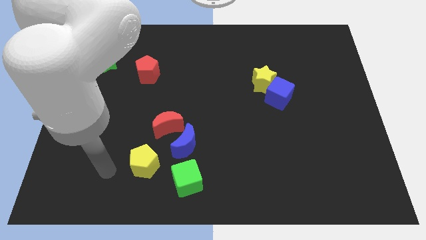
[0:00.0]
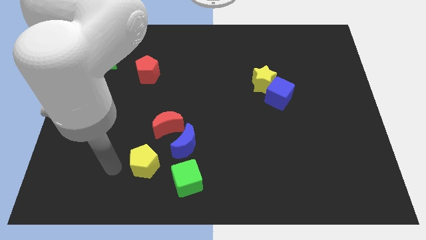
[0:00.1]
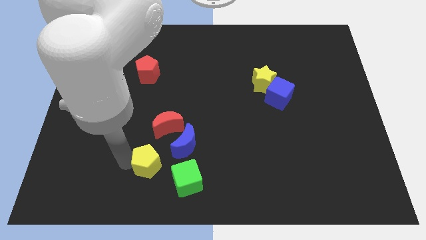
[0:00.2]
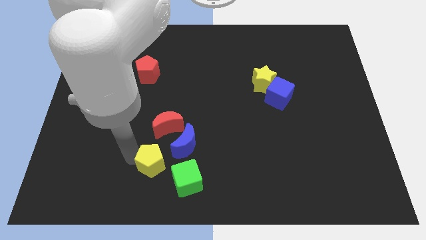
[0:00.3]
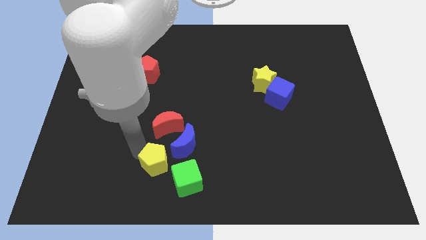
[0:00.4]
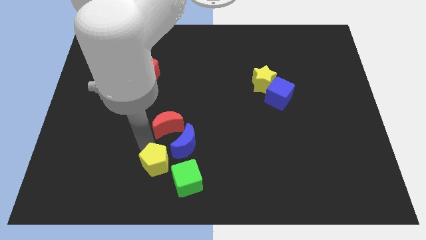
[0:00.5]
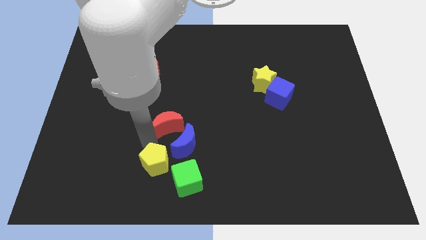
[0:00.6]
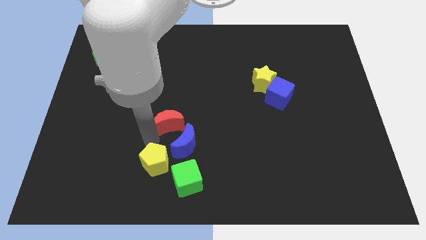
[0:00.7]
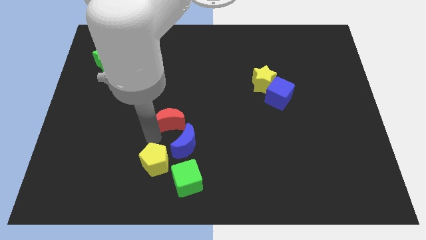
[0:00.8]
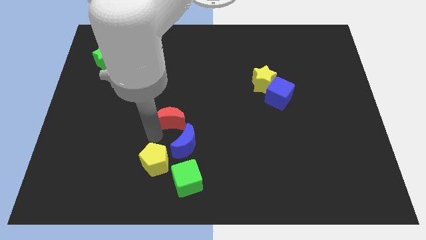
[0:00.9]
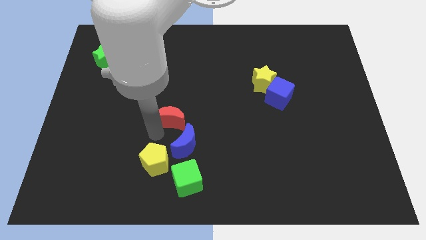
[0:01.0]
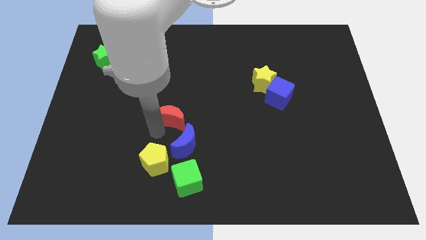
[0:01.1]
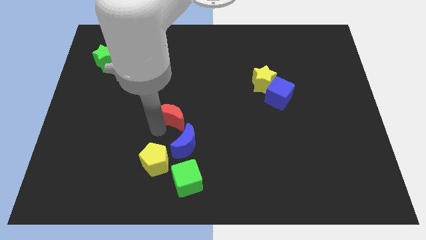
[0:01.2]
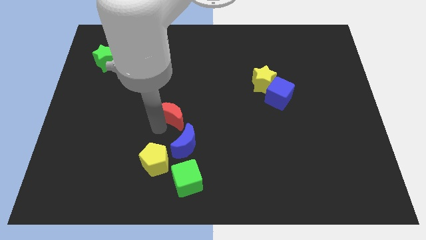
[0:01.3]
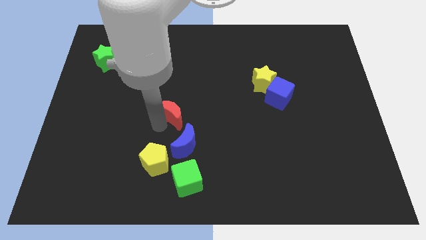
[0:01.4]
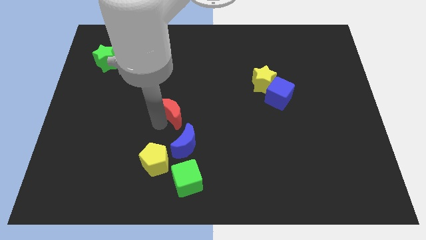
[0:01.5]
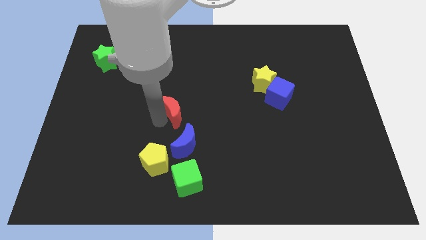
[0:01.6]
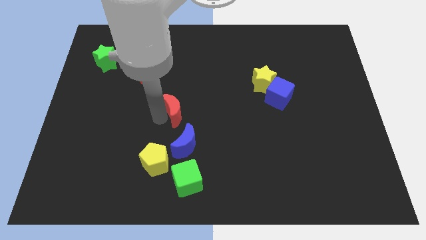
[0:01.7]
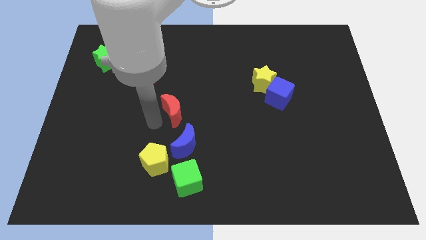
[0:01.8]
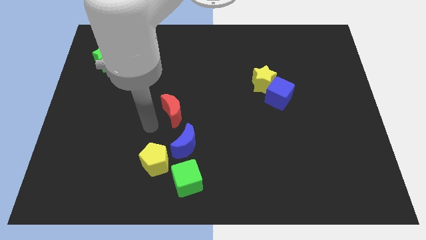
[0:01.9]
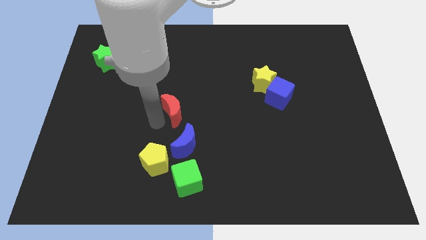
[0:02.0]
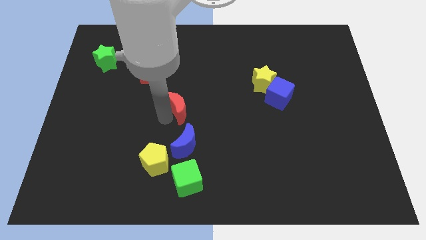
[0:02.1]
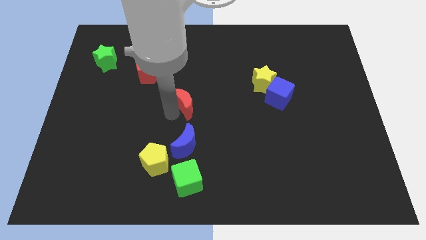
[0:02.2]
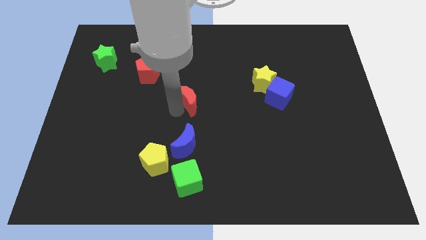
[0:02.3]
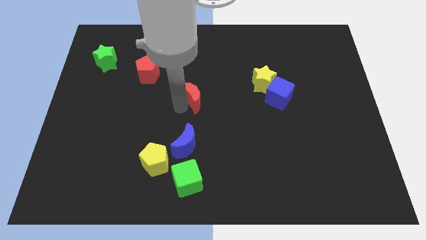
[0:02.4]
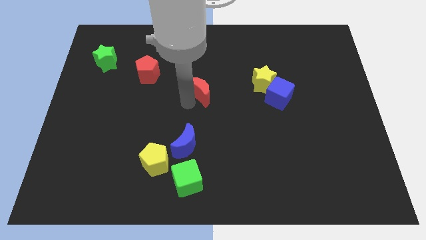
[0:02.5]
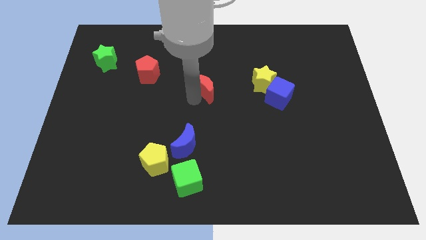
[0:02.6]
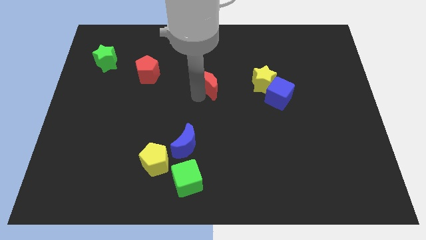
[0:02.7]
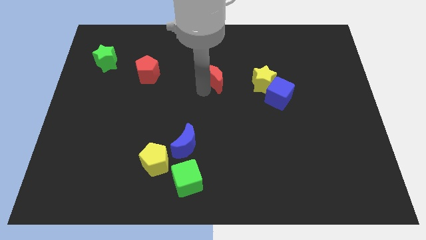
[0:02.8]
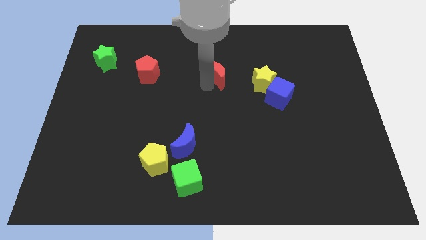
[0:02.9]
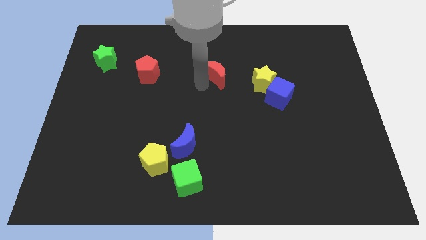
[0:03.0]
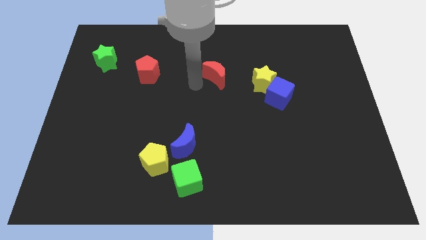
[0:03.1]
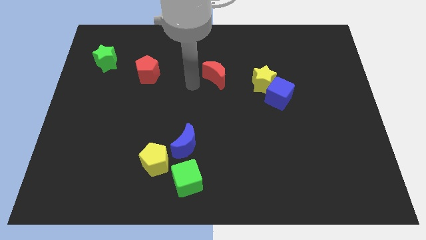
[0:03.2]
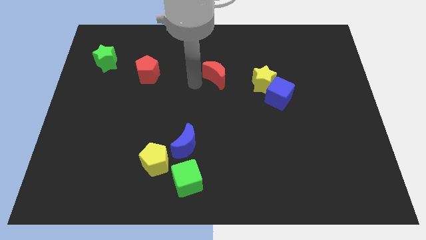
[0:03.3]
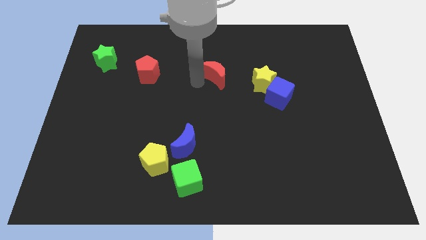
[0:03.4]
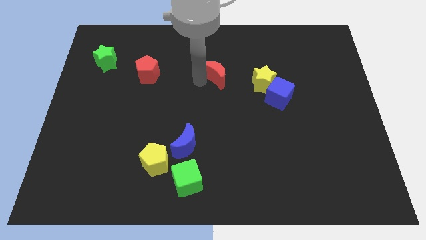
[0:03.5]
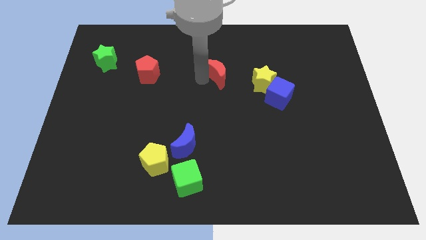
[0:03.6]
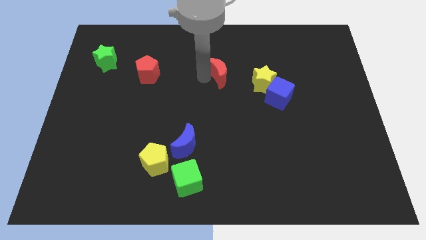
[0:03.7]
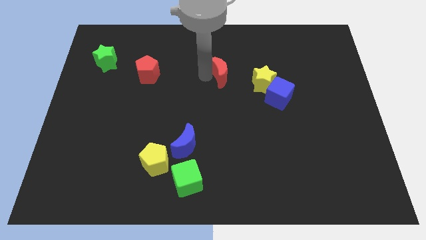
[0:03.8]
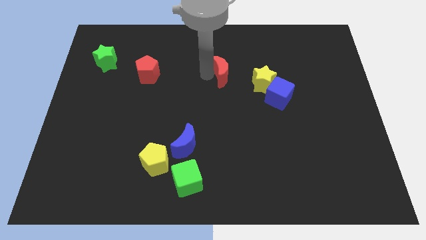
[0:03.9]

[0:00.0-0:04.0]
push the red moon up and then right

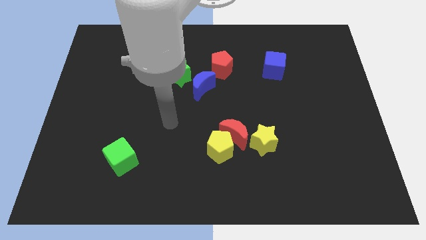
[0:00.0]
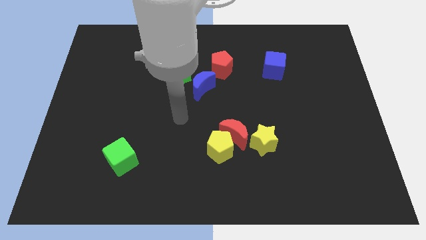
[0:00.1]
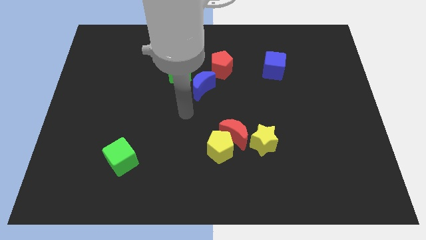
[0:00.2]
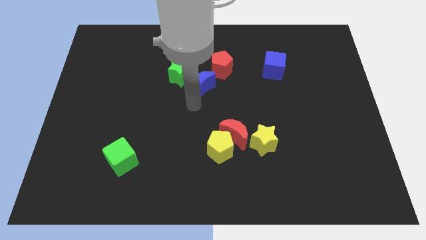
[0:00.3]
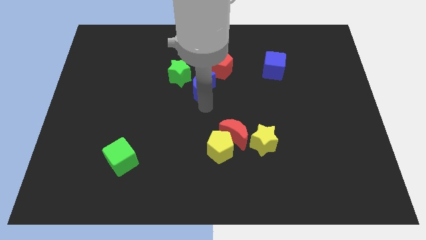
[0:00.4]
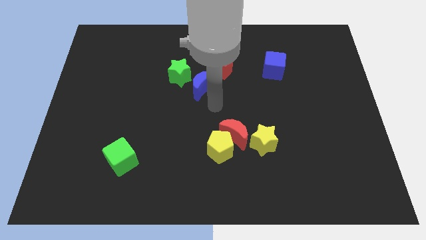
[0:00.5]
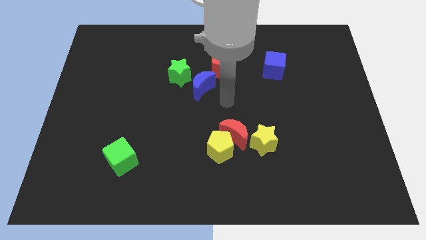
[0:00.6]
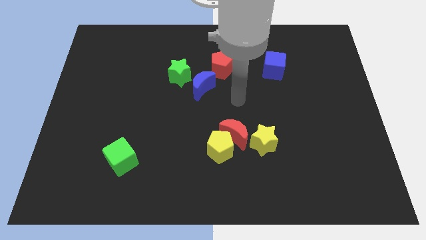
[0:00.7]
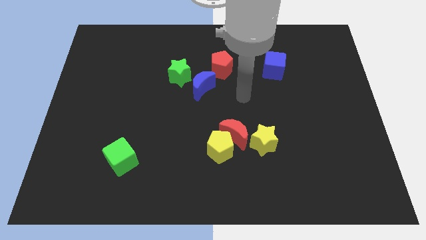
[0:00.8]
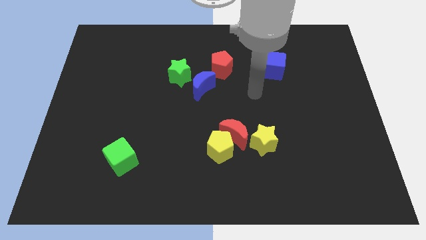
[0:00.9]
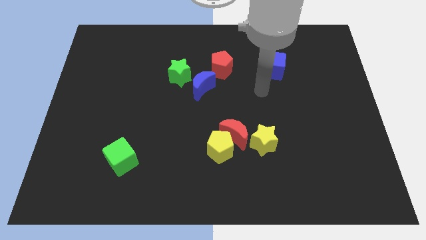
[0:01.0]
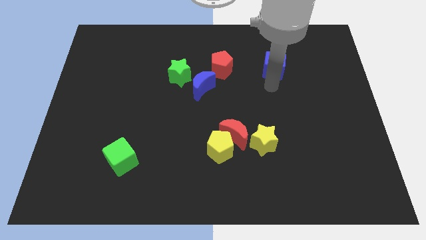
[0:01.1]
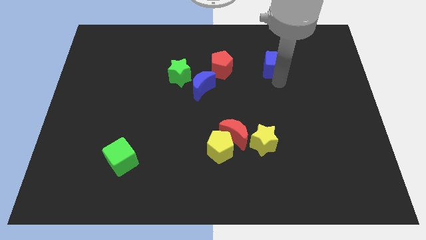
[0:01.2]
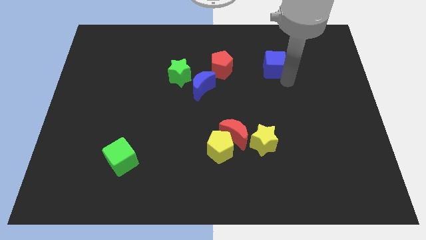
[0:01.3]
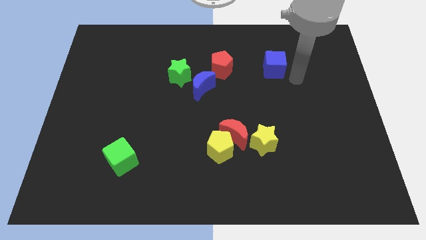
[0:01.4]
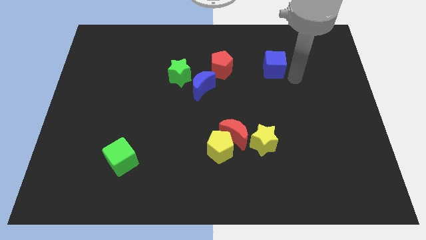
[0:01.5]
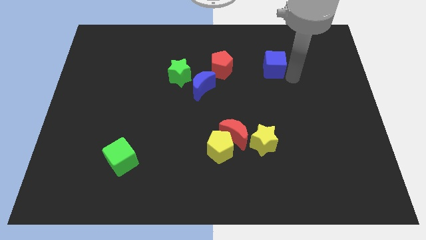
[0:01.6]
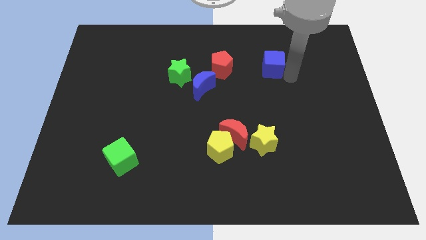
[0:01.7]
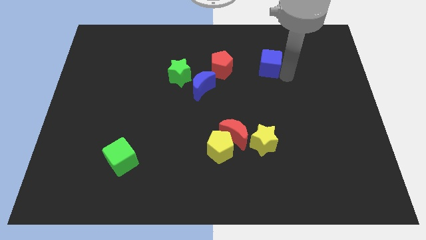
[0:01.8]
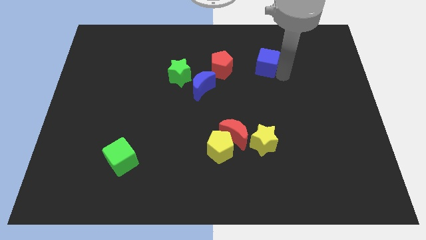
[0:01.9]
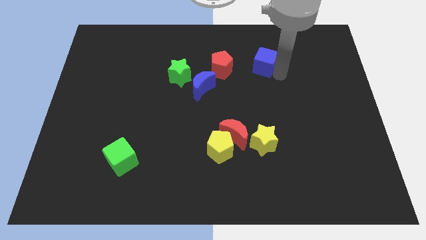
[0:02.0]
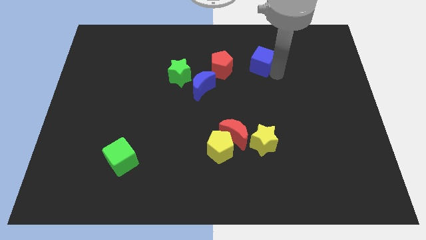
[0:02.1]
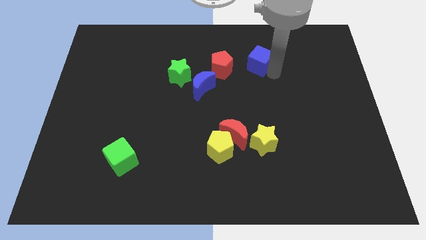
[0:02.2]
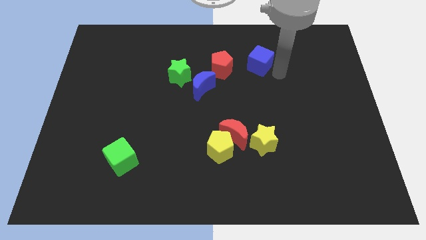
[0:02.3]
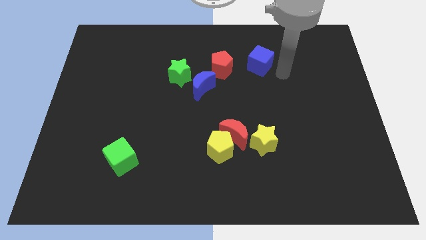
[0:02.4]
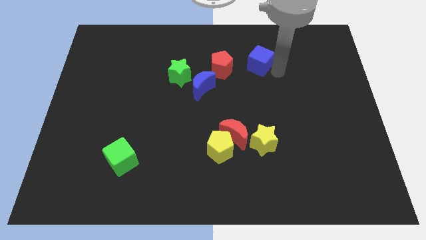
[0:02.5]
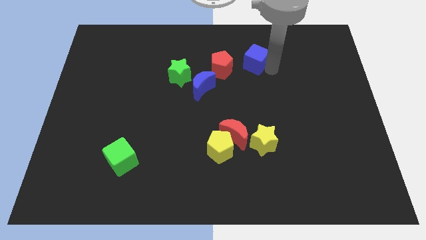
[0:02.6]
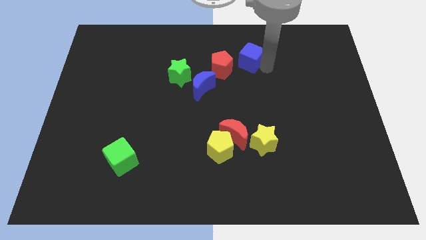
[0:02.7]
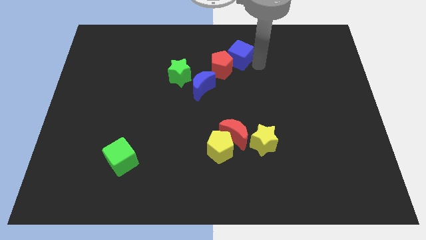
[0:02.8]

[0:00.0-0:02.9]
move the blue cube somewhat left

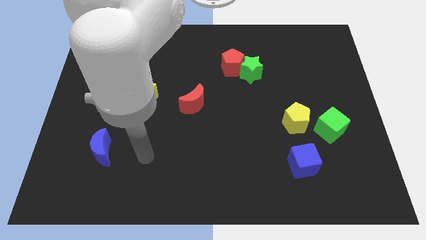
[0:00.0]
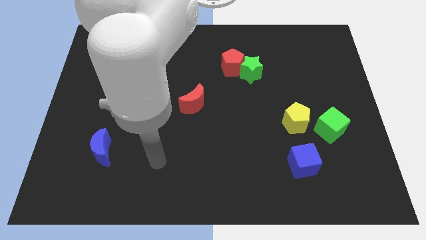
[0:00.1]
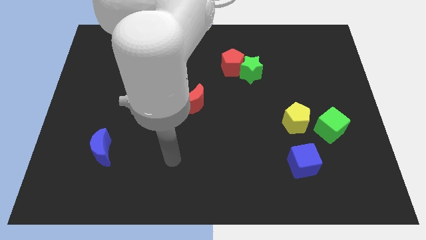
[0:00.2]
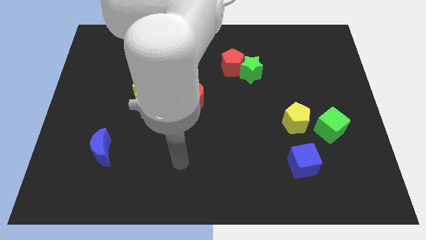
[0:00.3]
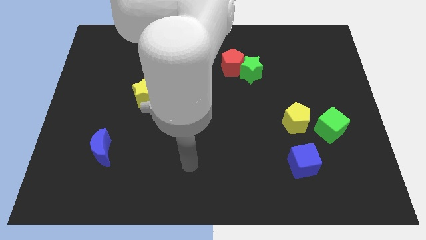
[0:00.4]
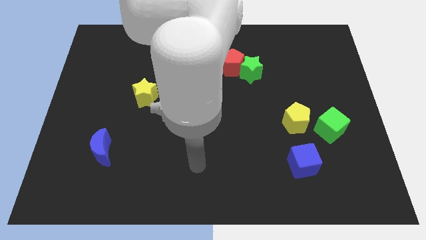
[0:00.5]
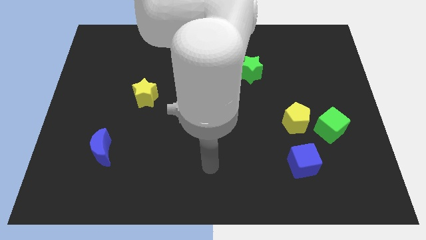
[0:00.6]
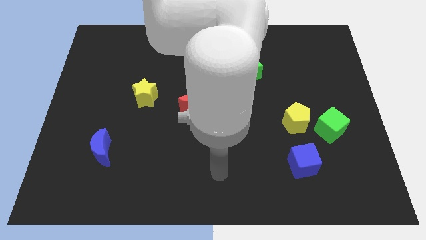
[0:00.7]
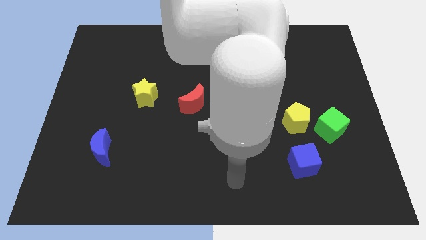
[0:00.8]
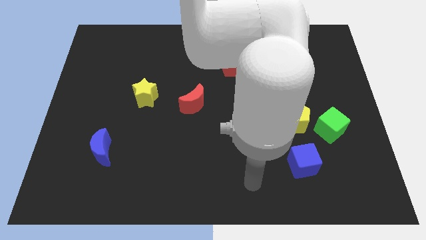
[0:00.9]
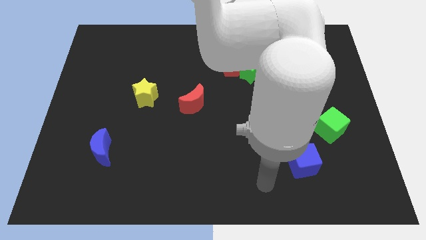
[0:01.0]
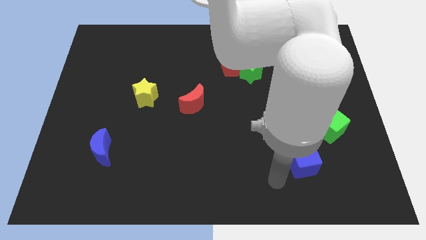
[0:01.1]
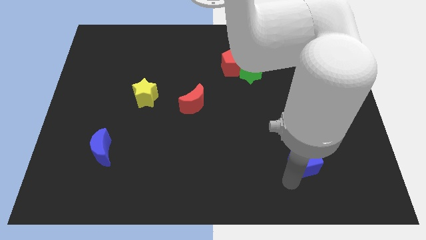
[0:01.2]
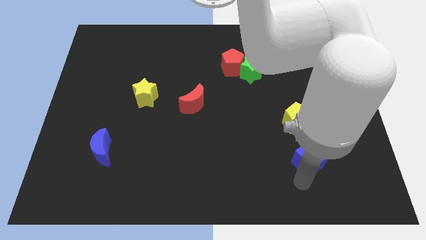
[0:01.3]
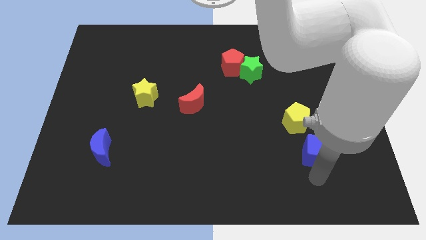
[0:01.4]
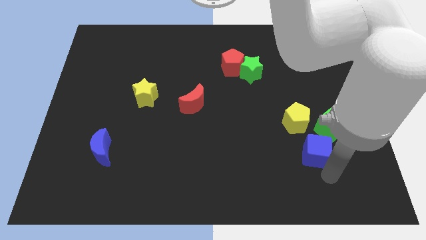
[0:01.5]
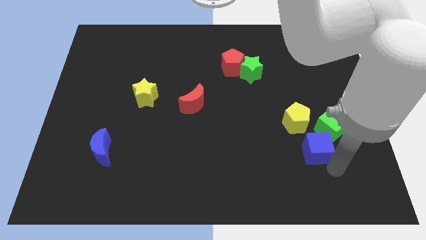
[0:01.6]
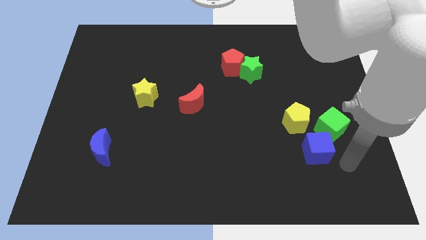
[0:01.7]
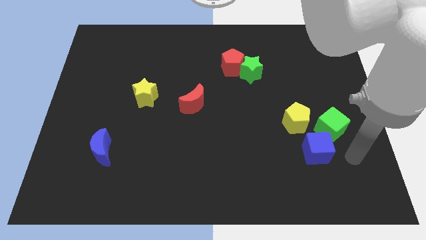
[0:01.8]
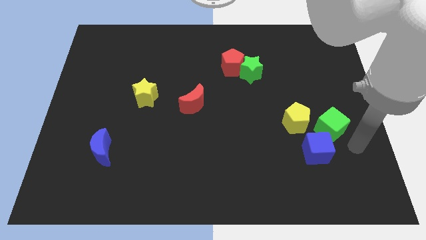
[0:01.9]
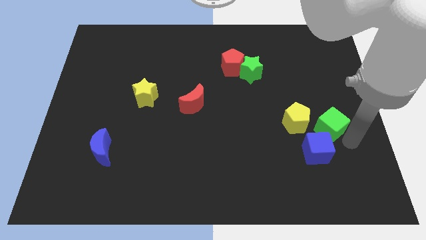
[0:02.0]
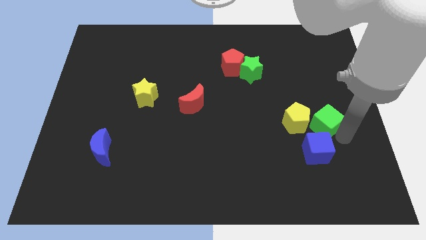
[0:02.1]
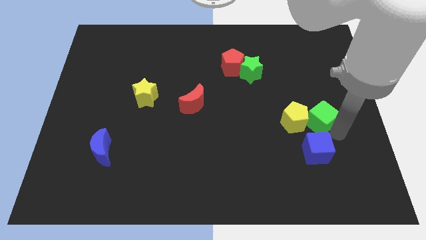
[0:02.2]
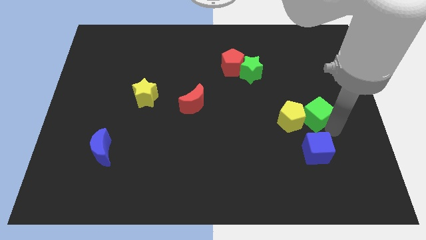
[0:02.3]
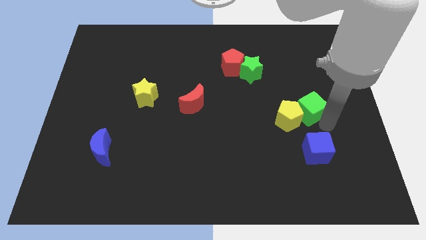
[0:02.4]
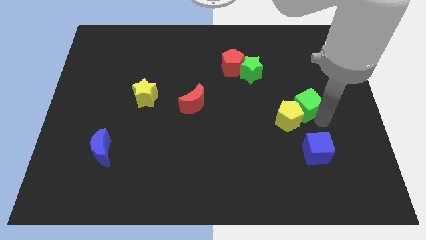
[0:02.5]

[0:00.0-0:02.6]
slide the green cube upwards and left diagonally a little
